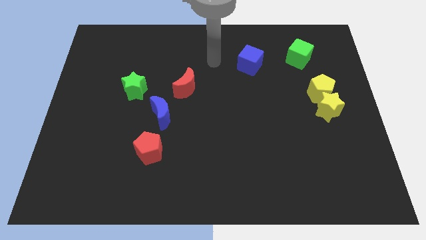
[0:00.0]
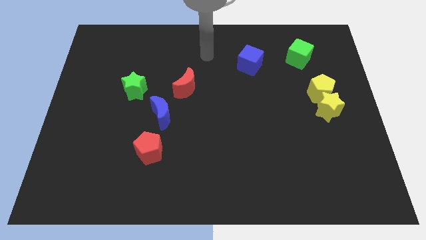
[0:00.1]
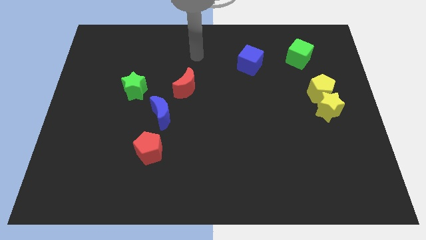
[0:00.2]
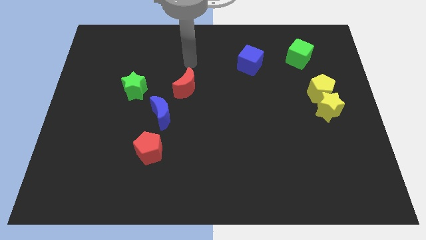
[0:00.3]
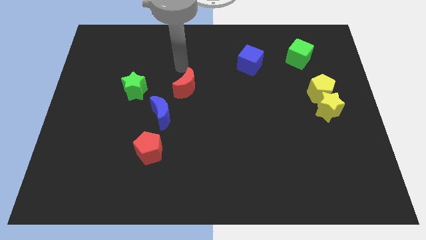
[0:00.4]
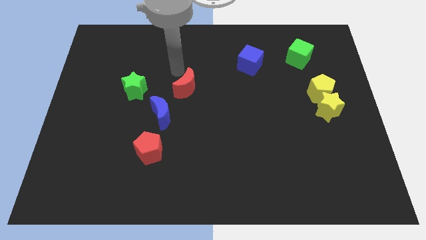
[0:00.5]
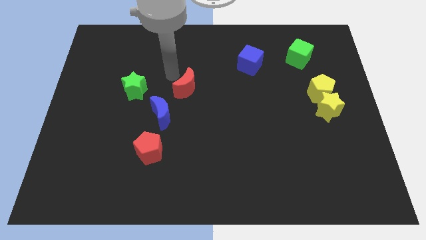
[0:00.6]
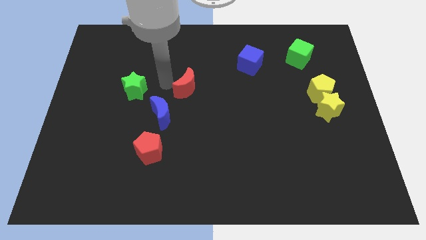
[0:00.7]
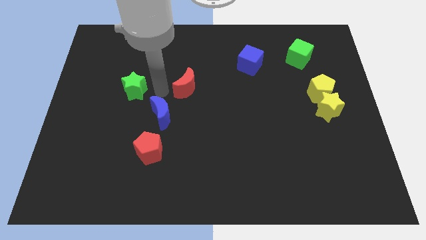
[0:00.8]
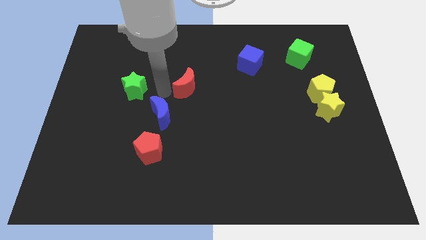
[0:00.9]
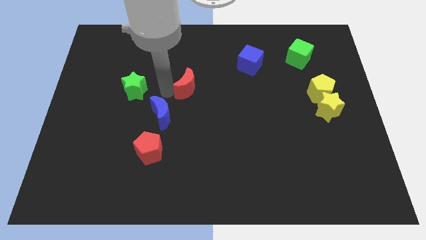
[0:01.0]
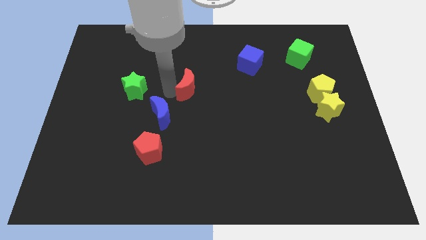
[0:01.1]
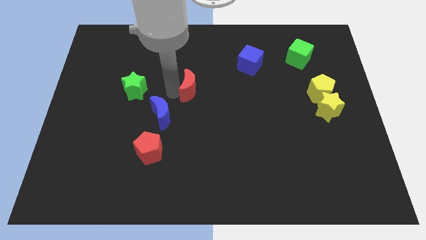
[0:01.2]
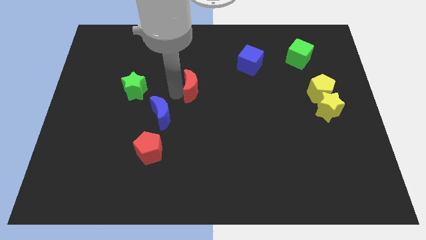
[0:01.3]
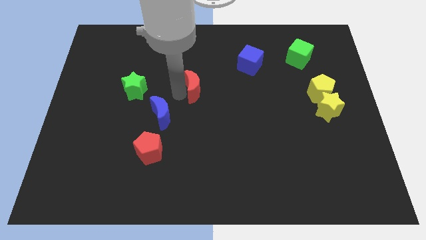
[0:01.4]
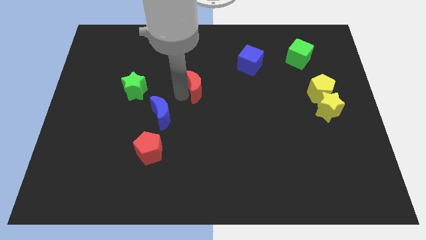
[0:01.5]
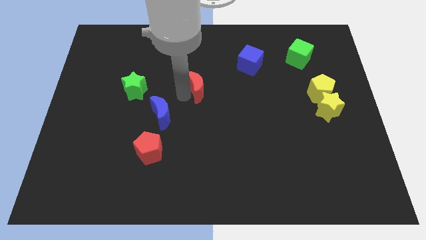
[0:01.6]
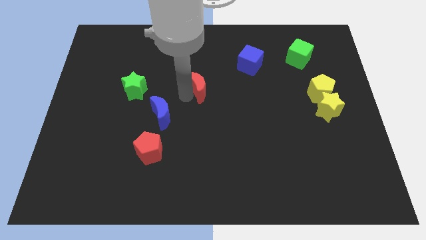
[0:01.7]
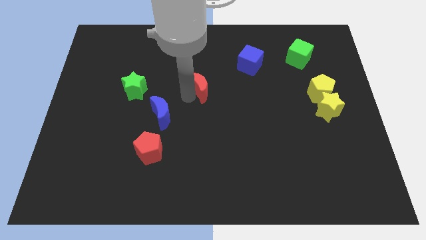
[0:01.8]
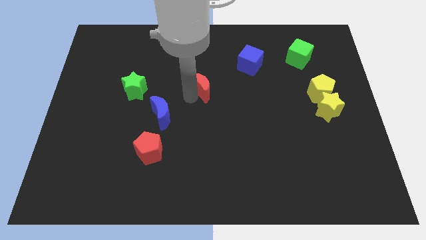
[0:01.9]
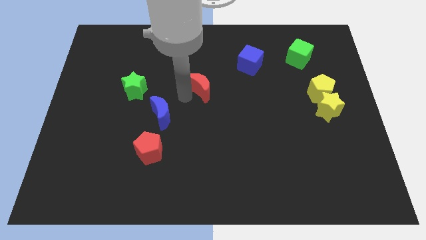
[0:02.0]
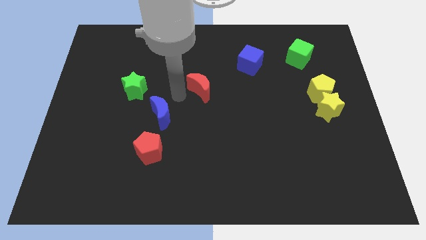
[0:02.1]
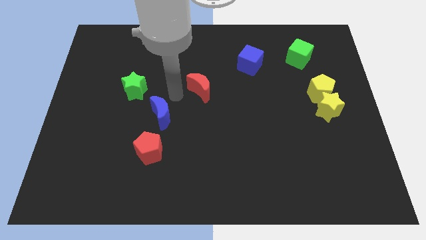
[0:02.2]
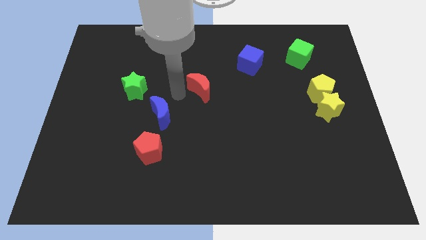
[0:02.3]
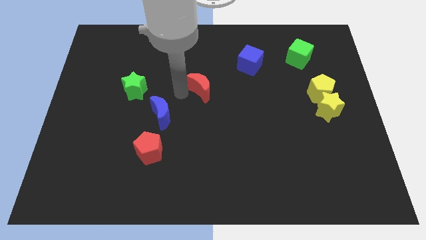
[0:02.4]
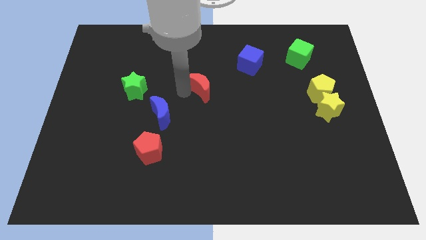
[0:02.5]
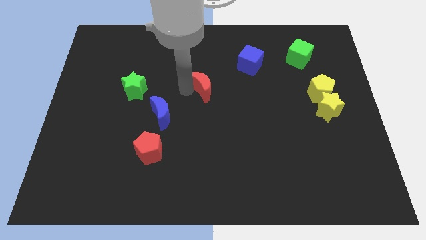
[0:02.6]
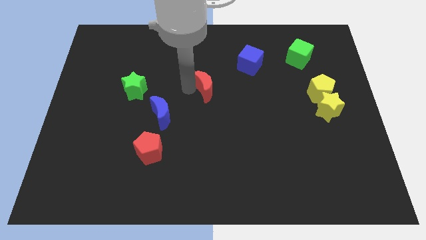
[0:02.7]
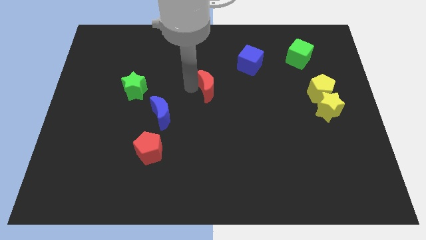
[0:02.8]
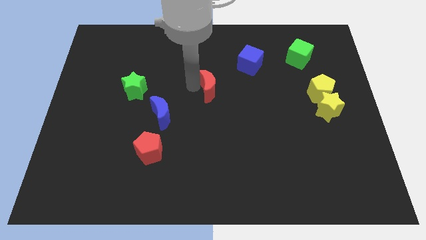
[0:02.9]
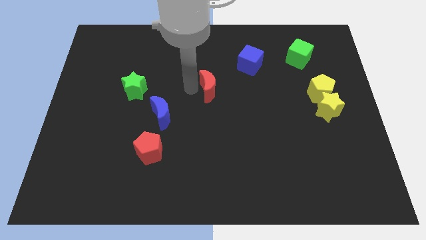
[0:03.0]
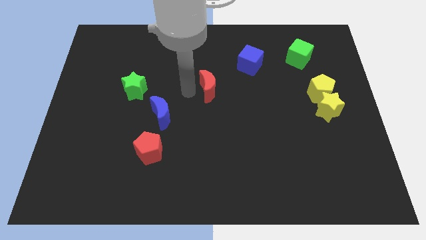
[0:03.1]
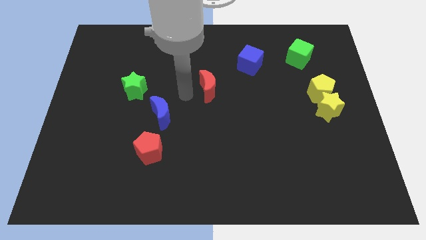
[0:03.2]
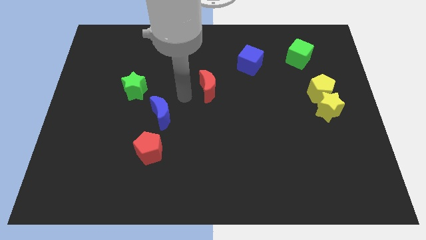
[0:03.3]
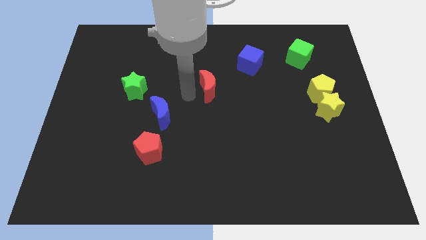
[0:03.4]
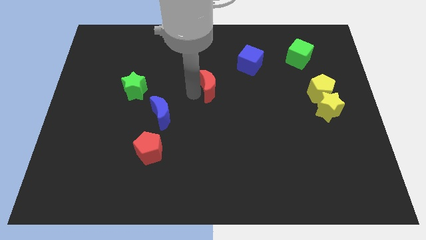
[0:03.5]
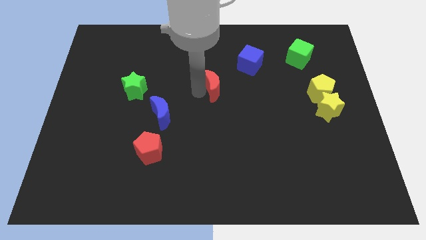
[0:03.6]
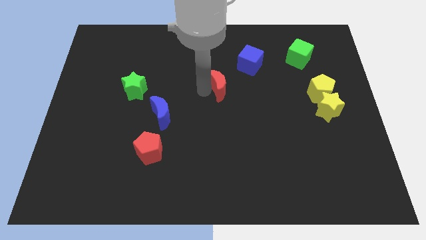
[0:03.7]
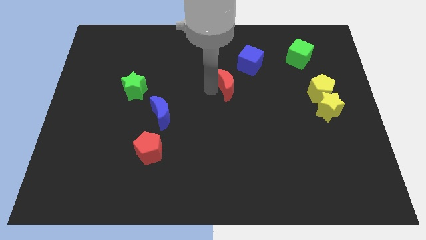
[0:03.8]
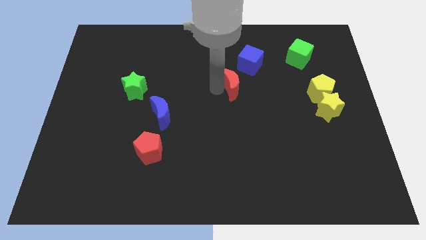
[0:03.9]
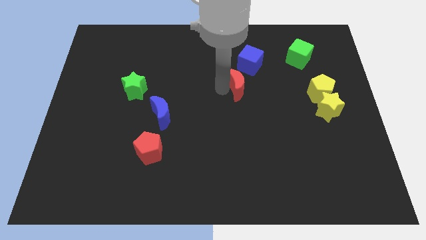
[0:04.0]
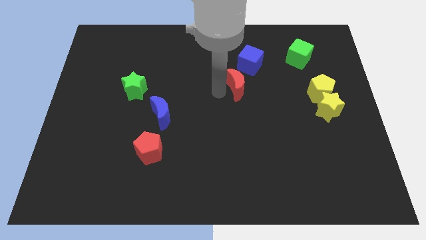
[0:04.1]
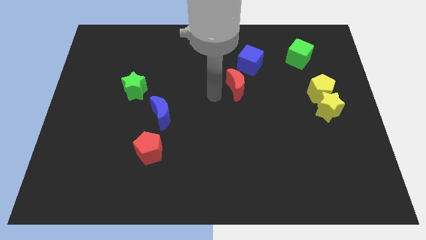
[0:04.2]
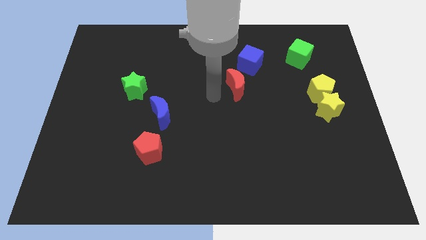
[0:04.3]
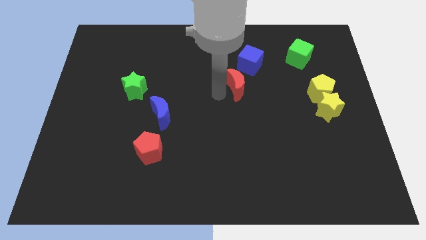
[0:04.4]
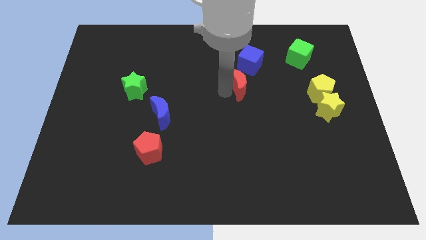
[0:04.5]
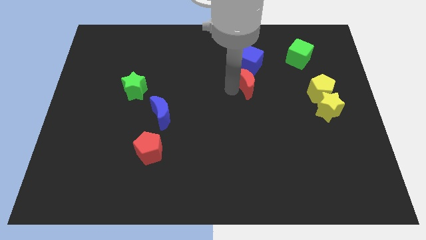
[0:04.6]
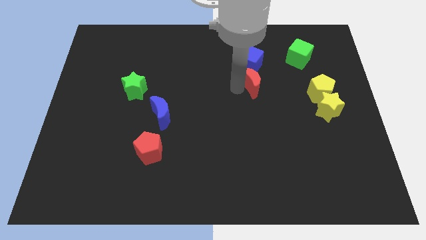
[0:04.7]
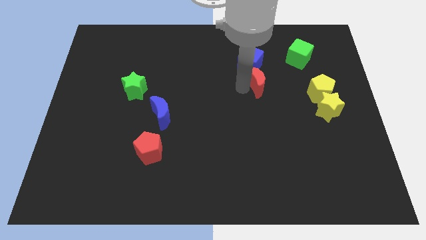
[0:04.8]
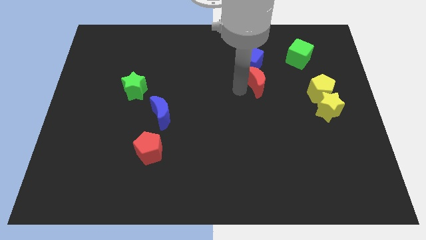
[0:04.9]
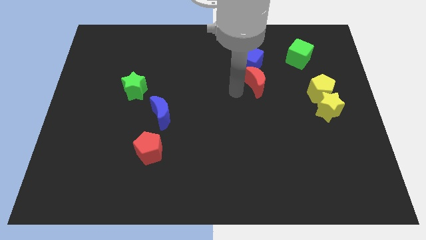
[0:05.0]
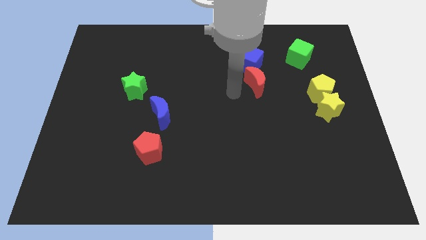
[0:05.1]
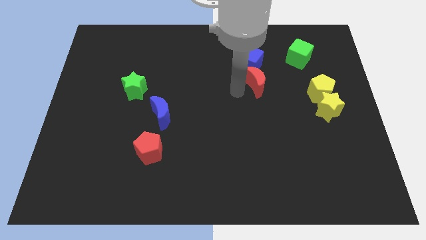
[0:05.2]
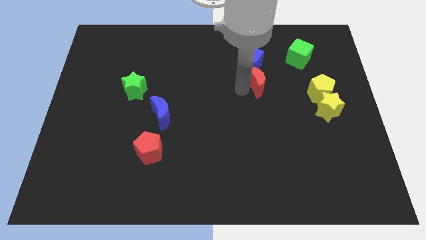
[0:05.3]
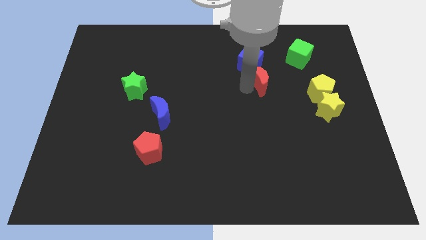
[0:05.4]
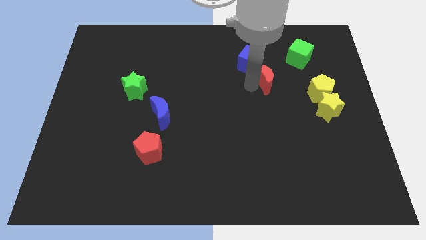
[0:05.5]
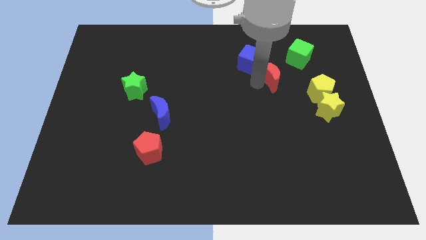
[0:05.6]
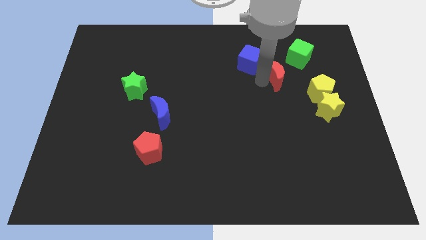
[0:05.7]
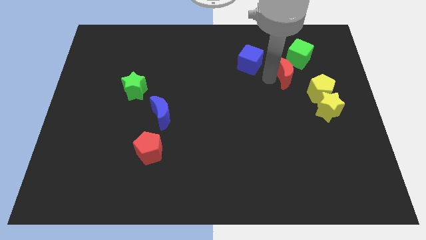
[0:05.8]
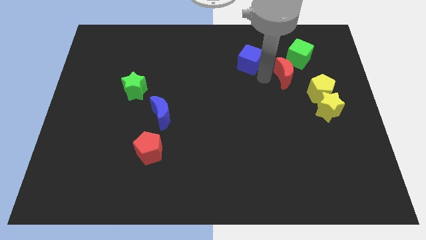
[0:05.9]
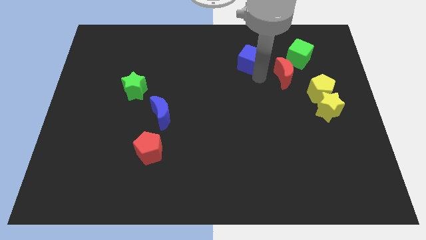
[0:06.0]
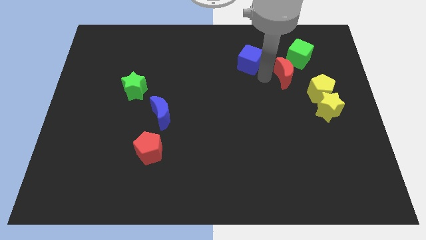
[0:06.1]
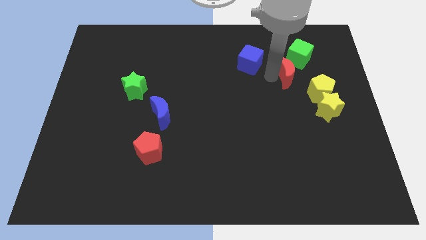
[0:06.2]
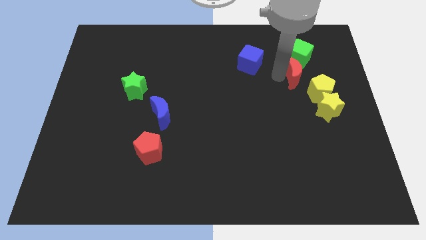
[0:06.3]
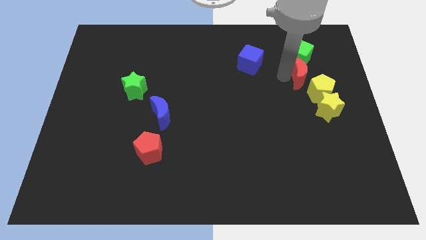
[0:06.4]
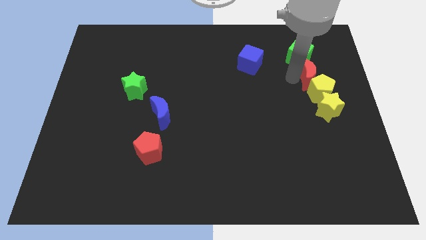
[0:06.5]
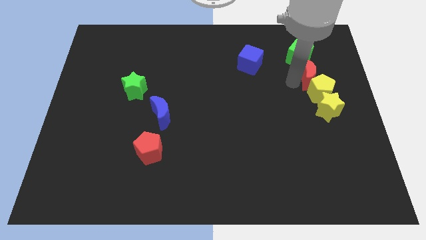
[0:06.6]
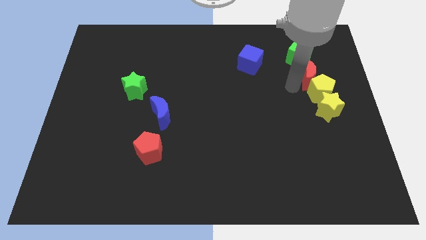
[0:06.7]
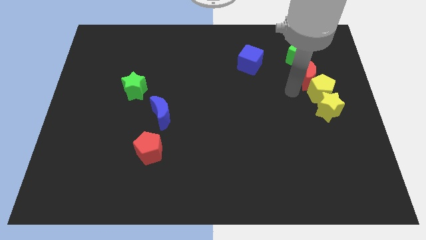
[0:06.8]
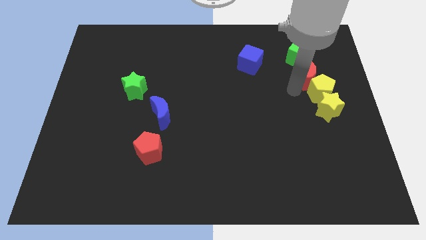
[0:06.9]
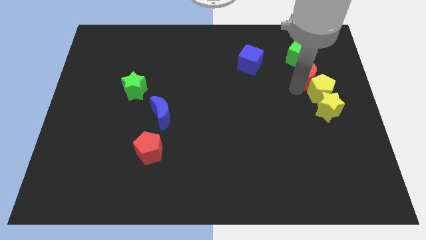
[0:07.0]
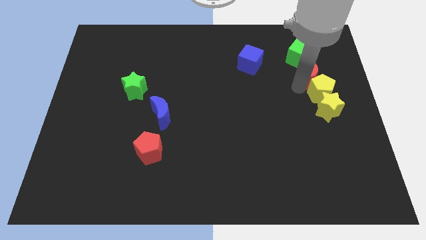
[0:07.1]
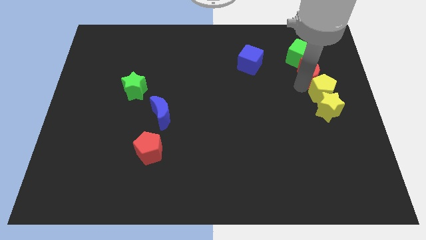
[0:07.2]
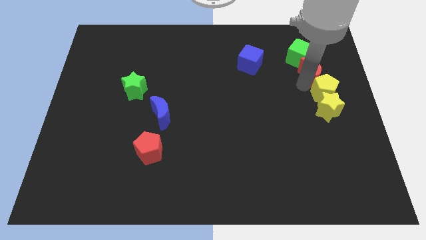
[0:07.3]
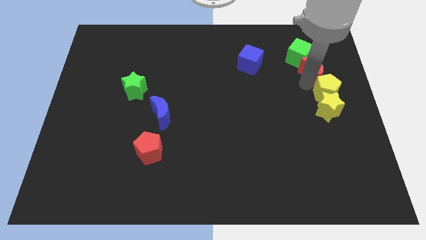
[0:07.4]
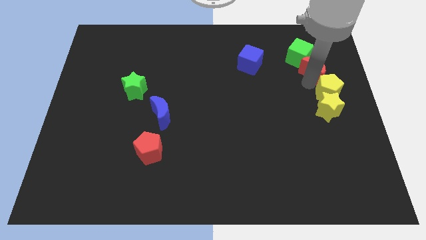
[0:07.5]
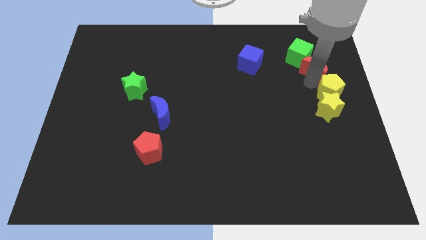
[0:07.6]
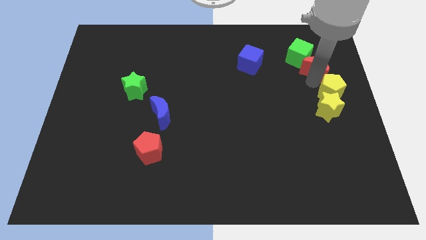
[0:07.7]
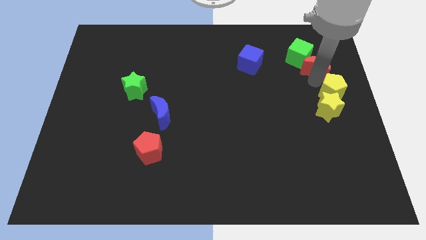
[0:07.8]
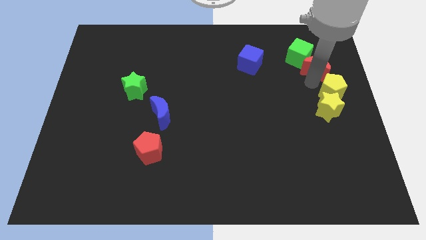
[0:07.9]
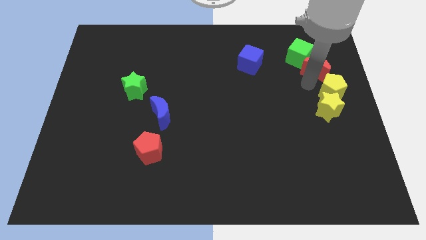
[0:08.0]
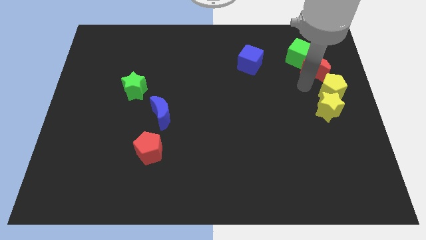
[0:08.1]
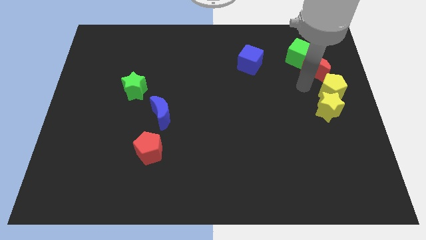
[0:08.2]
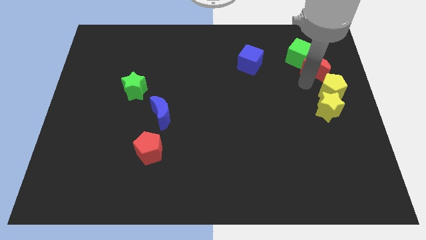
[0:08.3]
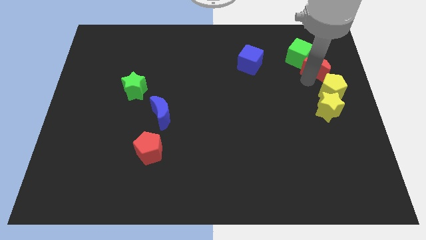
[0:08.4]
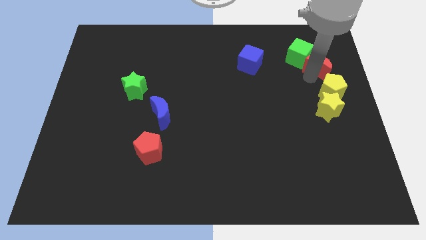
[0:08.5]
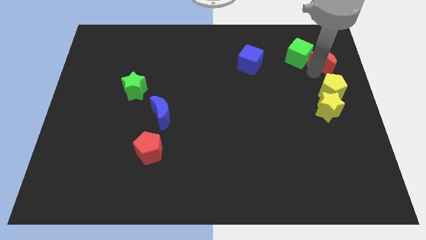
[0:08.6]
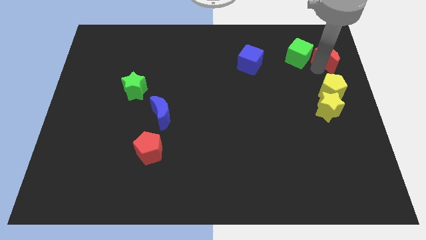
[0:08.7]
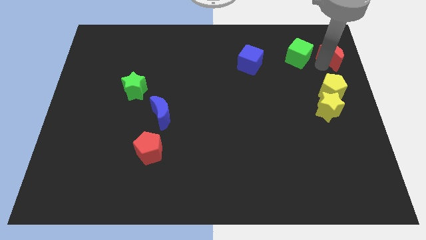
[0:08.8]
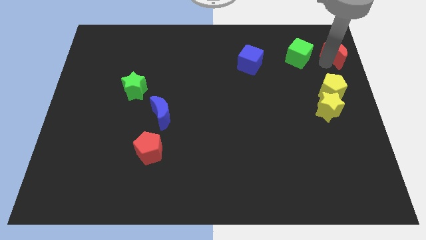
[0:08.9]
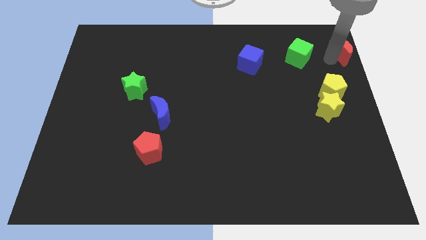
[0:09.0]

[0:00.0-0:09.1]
slide the red moon to the top right
